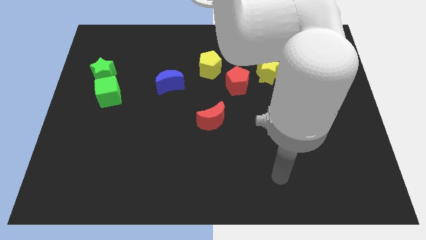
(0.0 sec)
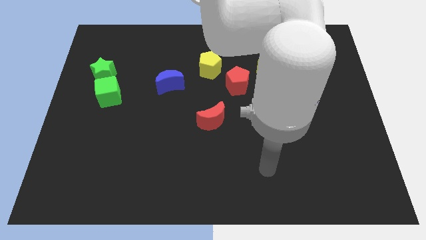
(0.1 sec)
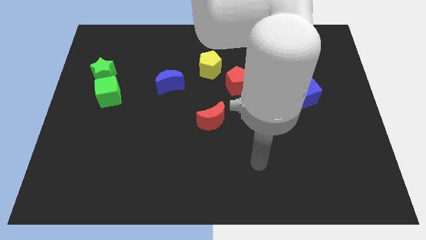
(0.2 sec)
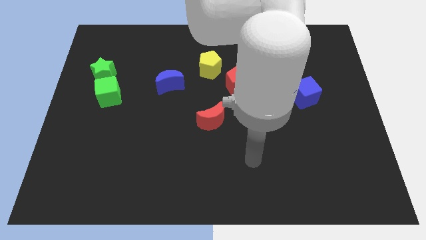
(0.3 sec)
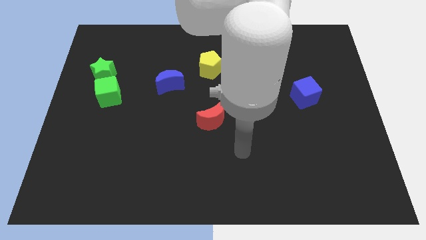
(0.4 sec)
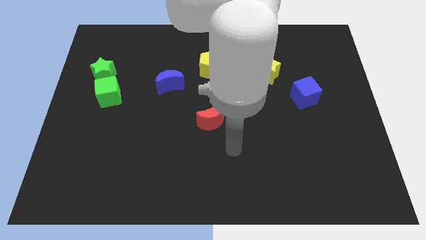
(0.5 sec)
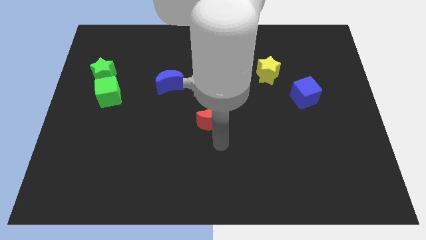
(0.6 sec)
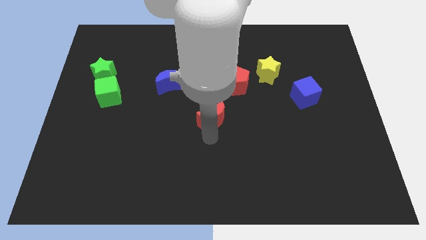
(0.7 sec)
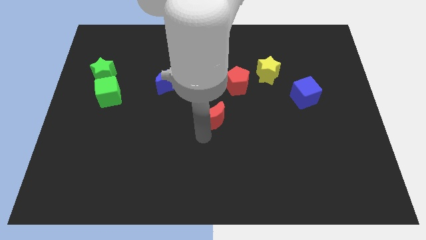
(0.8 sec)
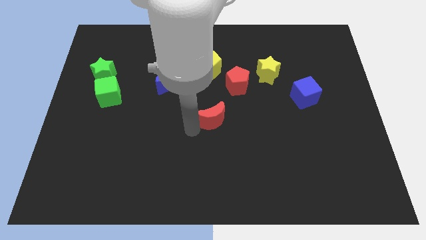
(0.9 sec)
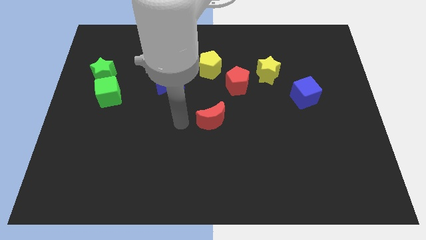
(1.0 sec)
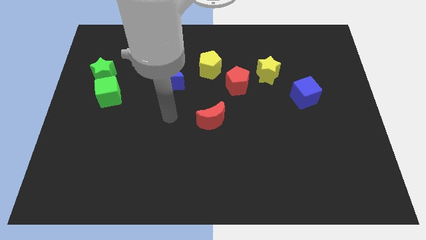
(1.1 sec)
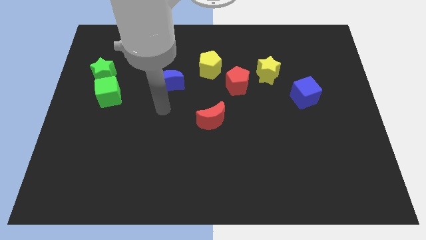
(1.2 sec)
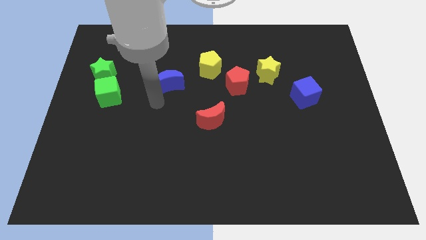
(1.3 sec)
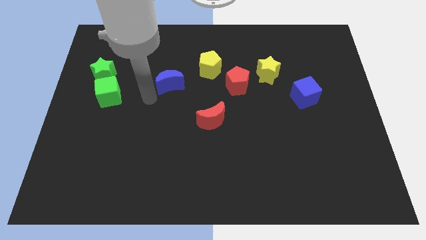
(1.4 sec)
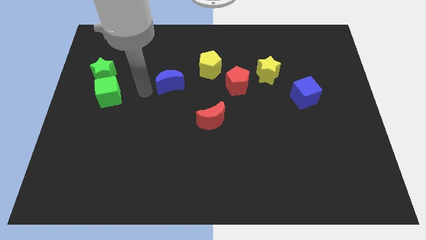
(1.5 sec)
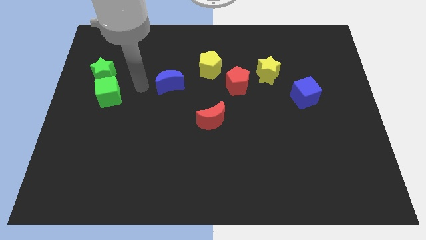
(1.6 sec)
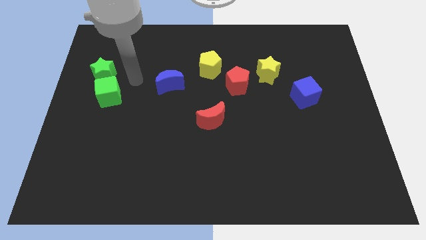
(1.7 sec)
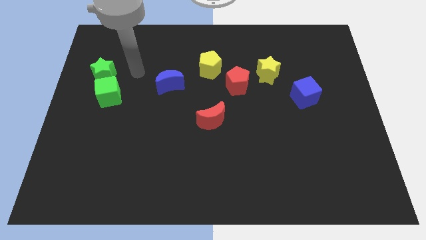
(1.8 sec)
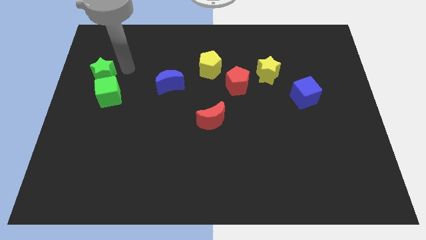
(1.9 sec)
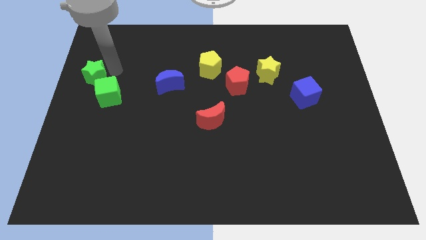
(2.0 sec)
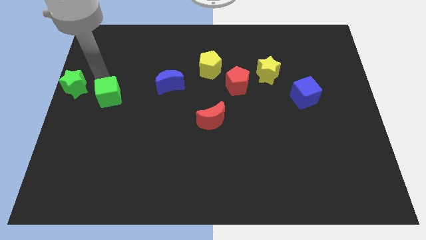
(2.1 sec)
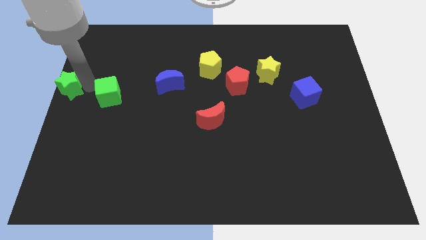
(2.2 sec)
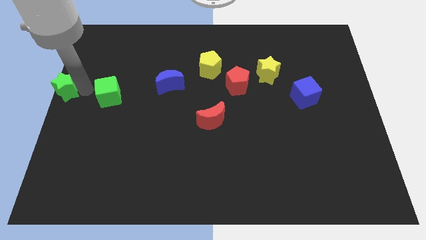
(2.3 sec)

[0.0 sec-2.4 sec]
move the green cube away from the green star

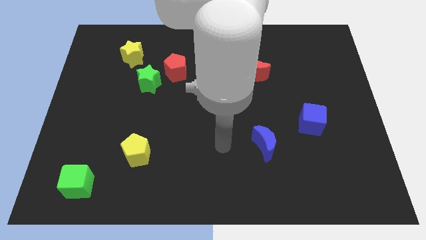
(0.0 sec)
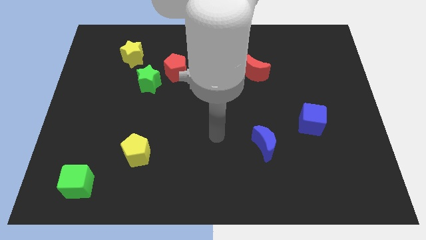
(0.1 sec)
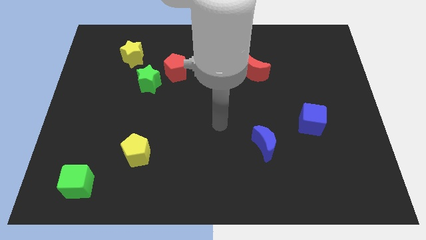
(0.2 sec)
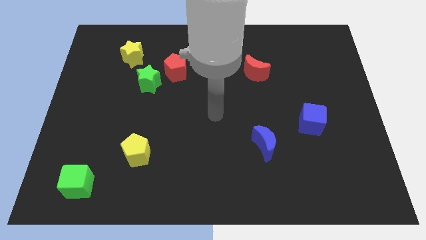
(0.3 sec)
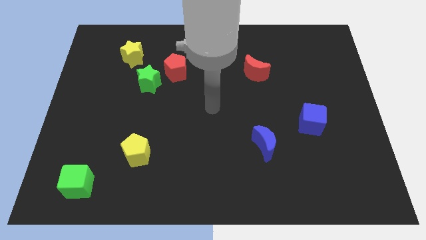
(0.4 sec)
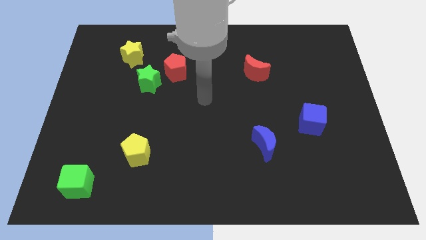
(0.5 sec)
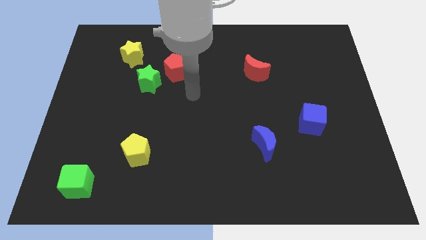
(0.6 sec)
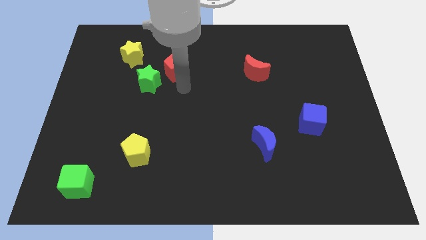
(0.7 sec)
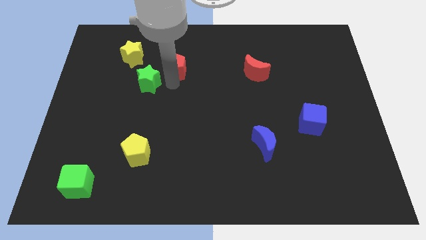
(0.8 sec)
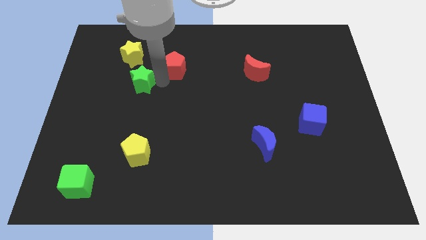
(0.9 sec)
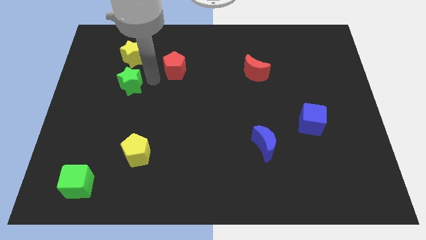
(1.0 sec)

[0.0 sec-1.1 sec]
move the red pentagon away from the green star

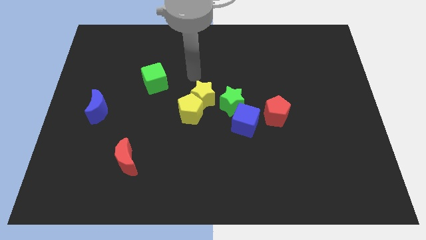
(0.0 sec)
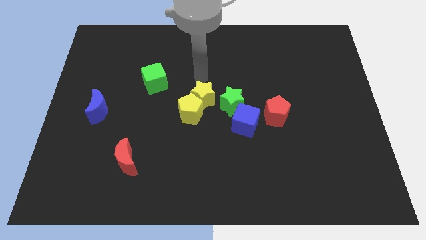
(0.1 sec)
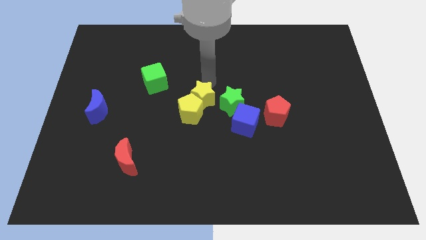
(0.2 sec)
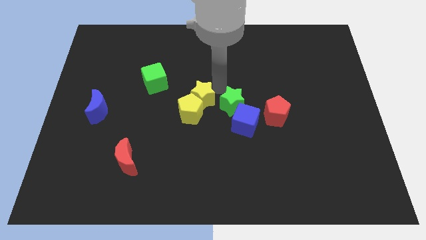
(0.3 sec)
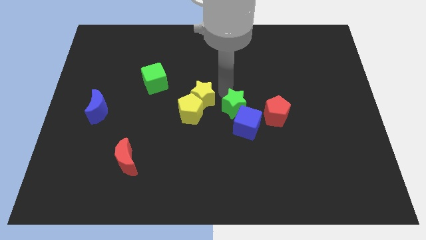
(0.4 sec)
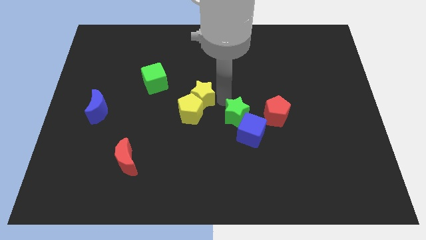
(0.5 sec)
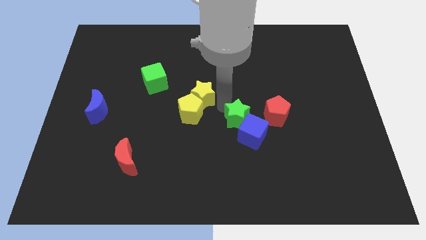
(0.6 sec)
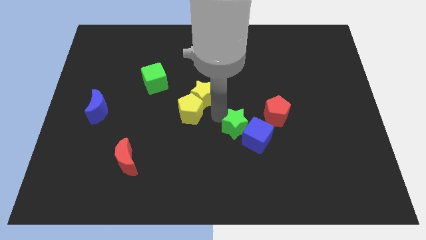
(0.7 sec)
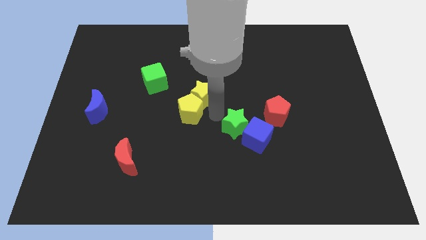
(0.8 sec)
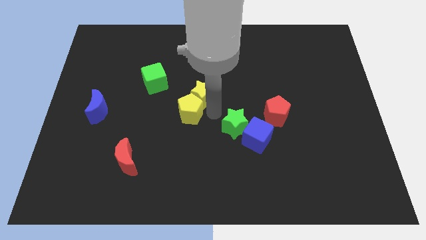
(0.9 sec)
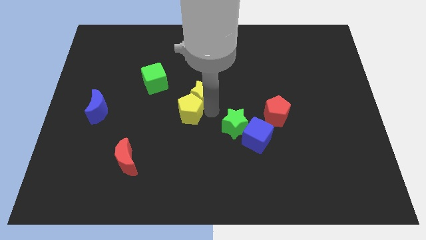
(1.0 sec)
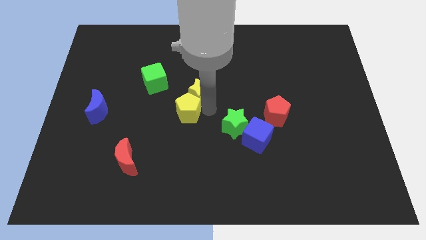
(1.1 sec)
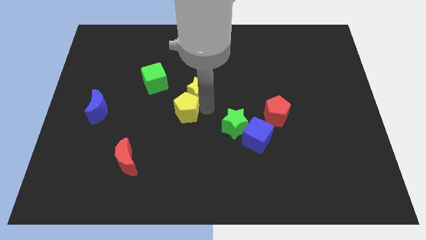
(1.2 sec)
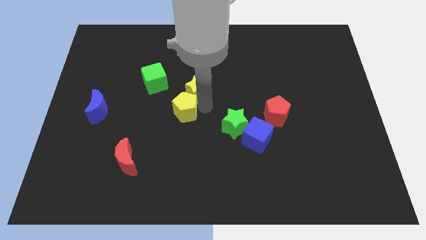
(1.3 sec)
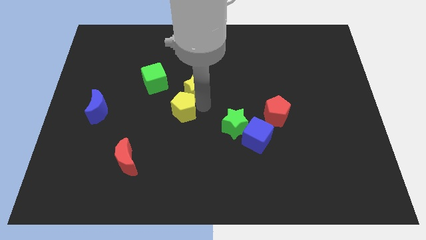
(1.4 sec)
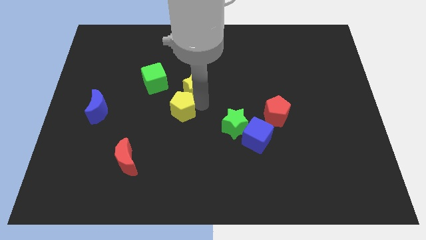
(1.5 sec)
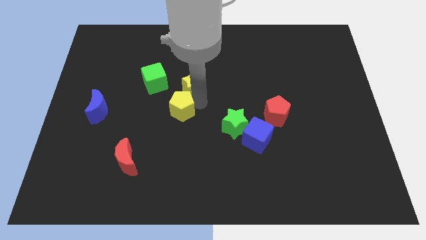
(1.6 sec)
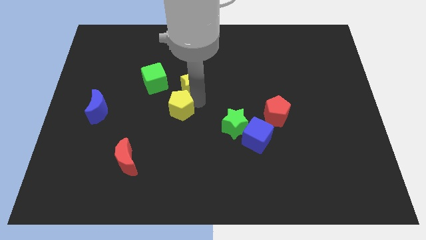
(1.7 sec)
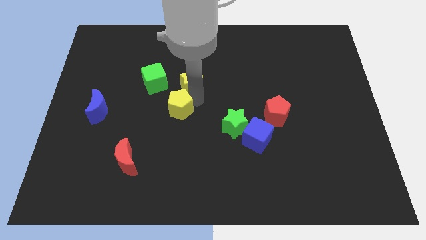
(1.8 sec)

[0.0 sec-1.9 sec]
separate the yellow star from the yellow pentagon and green star

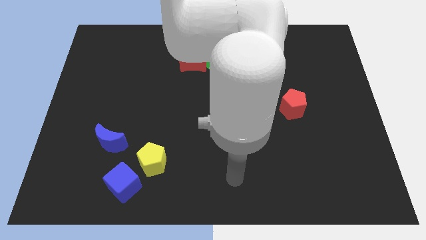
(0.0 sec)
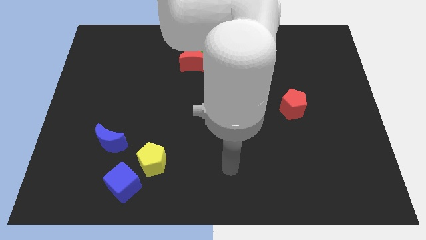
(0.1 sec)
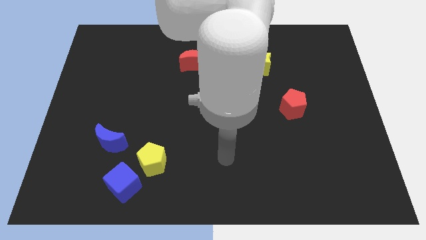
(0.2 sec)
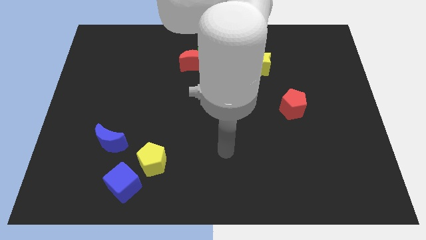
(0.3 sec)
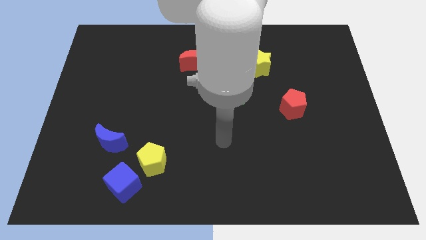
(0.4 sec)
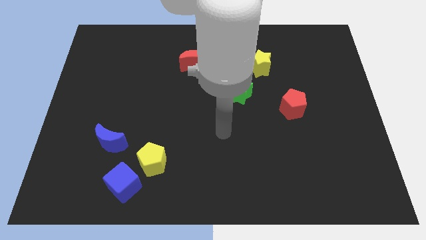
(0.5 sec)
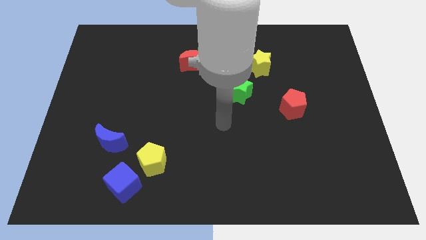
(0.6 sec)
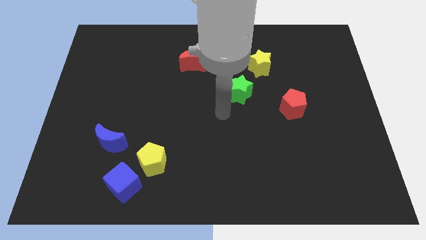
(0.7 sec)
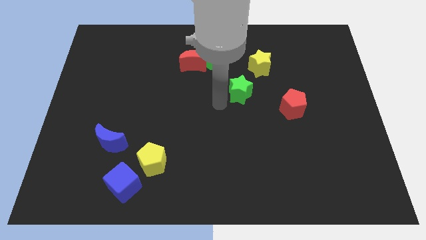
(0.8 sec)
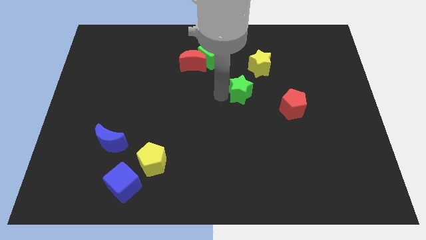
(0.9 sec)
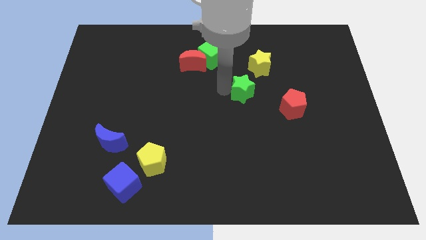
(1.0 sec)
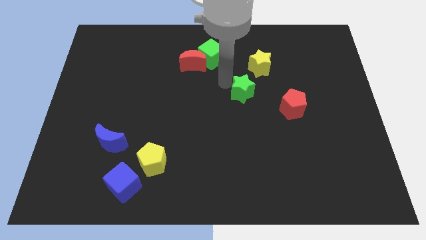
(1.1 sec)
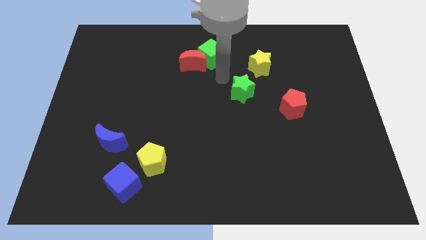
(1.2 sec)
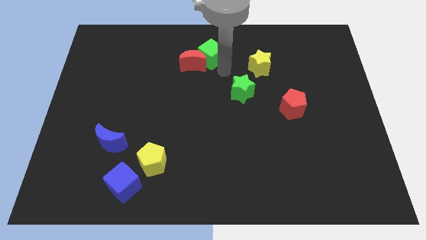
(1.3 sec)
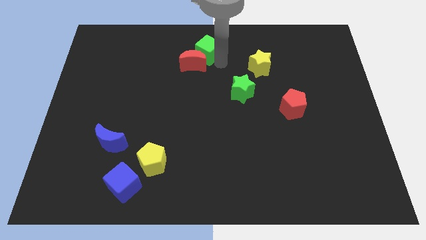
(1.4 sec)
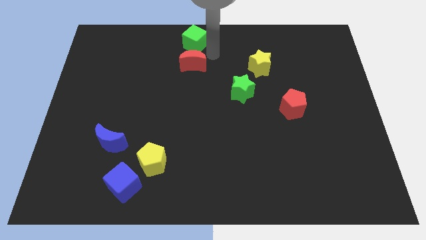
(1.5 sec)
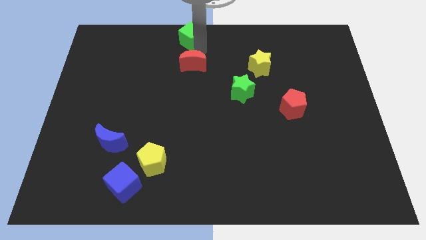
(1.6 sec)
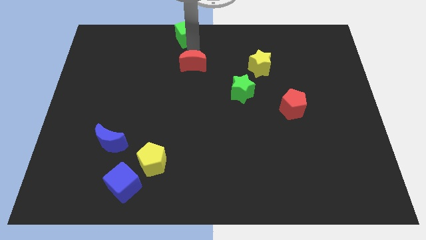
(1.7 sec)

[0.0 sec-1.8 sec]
pull the red moon apart from the green cube

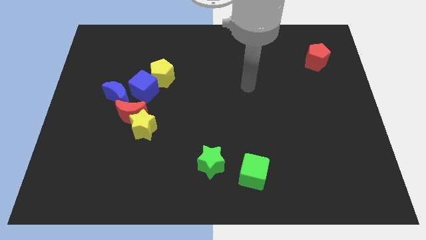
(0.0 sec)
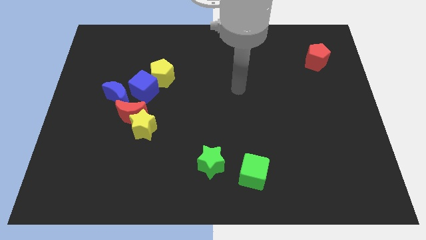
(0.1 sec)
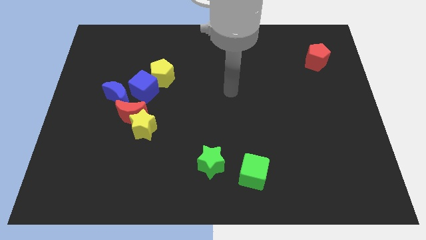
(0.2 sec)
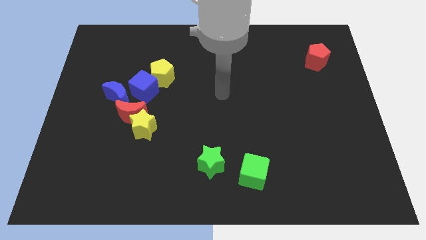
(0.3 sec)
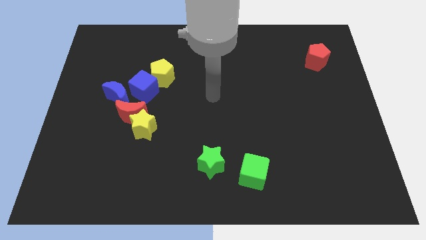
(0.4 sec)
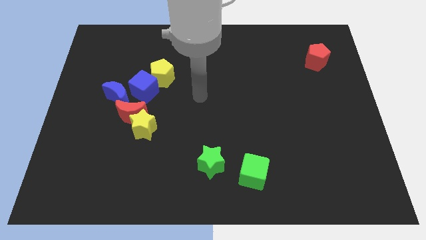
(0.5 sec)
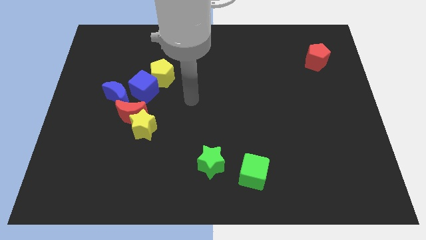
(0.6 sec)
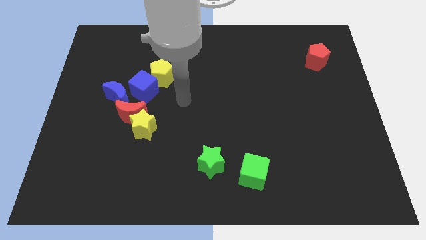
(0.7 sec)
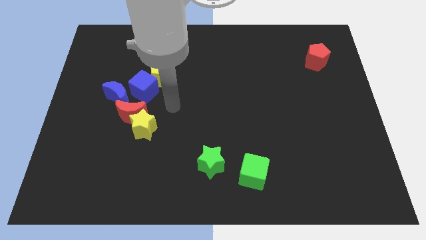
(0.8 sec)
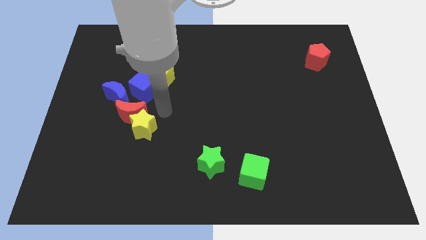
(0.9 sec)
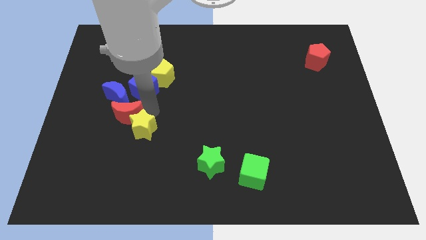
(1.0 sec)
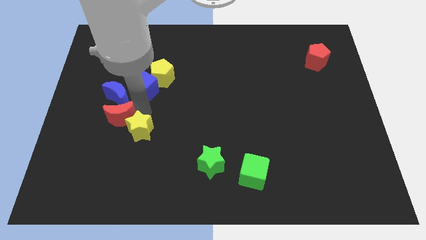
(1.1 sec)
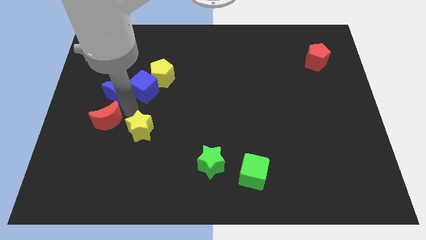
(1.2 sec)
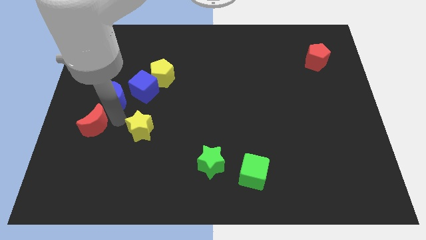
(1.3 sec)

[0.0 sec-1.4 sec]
separate the yellow star from the red moon

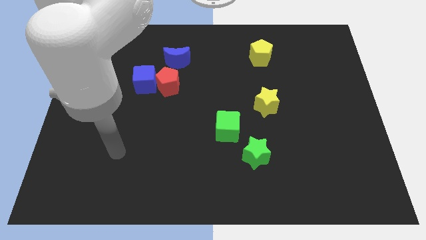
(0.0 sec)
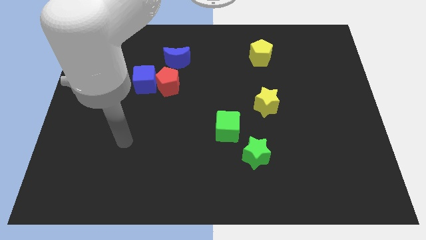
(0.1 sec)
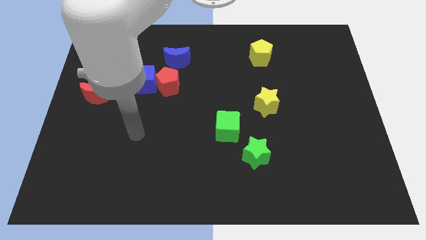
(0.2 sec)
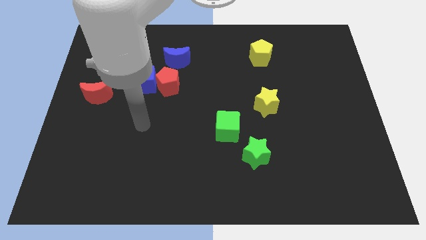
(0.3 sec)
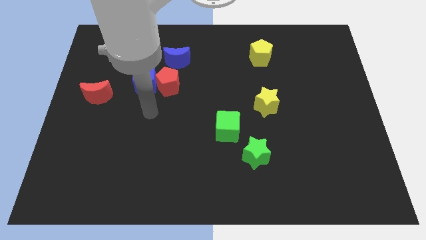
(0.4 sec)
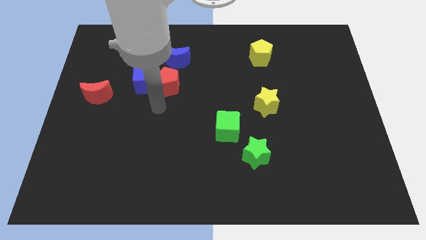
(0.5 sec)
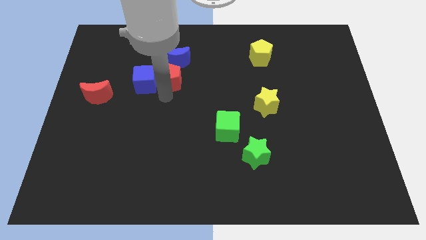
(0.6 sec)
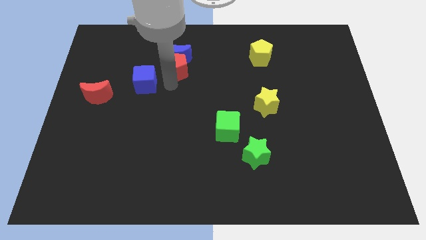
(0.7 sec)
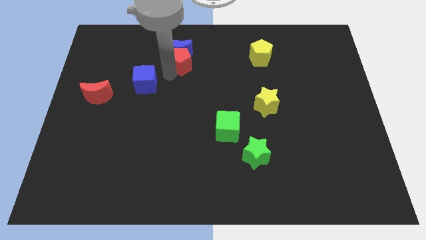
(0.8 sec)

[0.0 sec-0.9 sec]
separate the blue cube from the red pentagon
